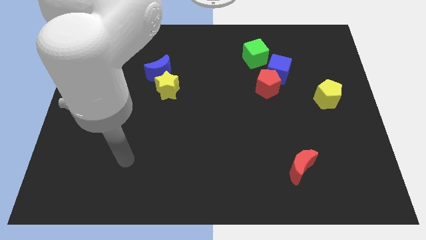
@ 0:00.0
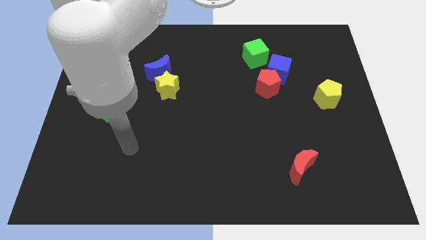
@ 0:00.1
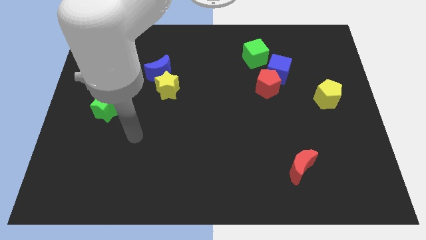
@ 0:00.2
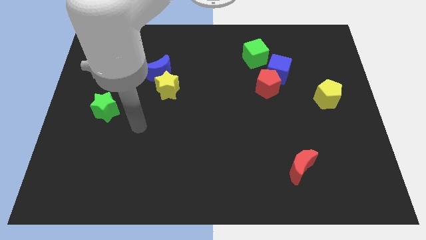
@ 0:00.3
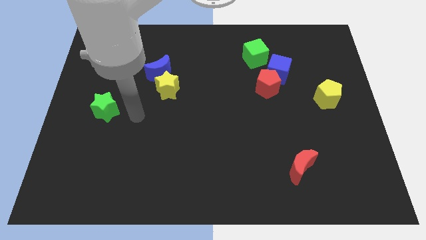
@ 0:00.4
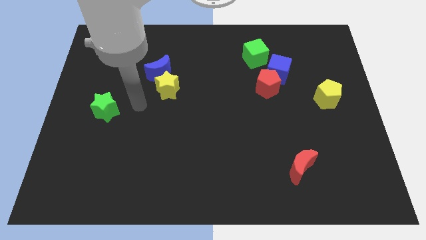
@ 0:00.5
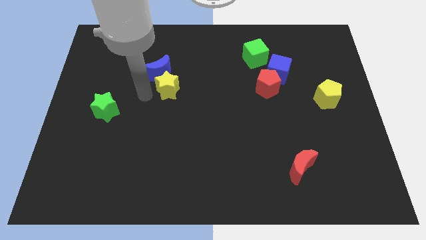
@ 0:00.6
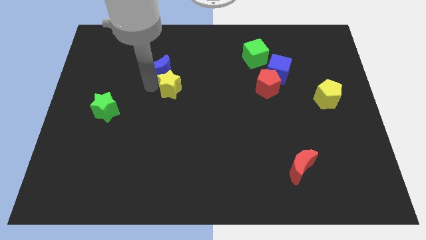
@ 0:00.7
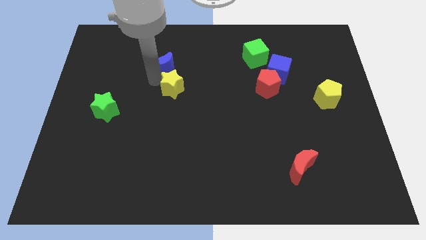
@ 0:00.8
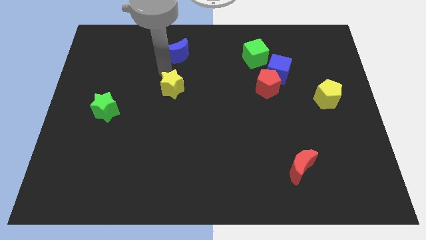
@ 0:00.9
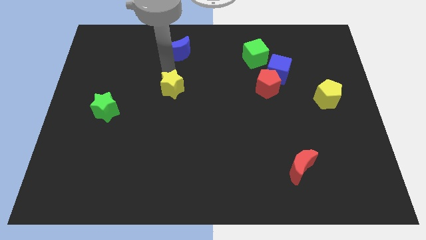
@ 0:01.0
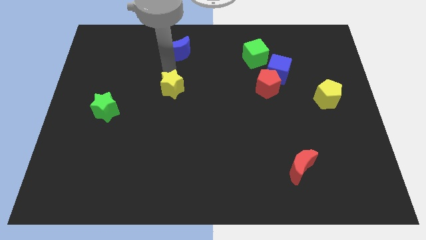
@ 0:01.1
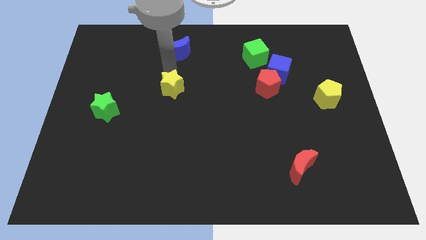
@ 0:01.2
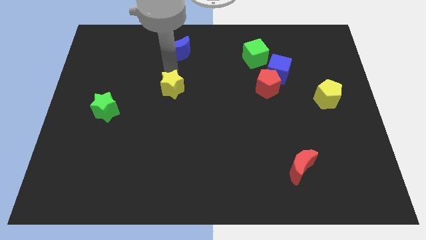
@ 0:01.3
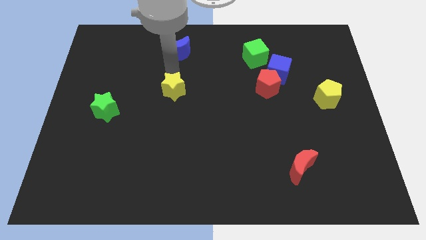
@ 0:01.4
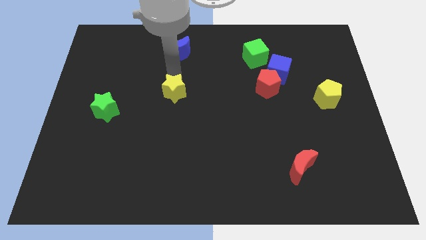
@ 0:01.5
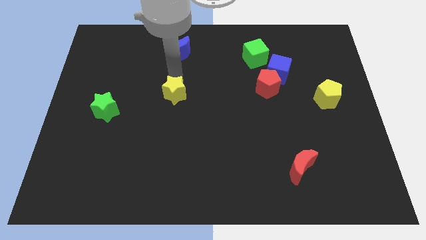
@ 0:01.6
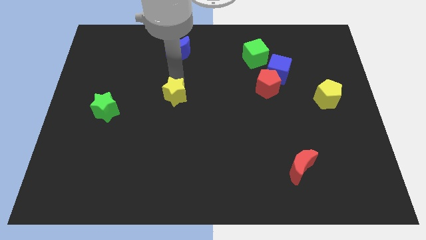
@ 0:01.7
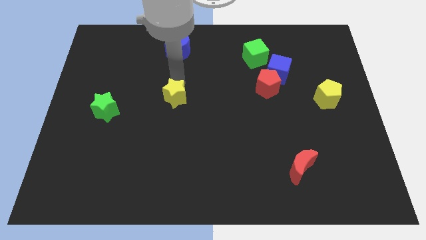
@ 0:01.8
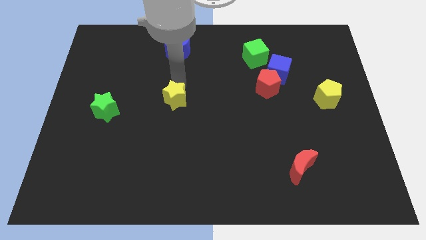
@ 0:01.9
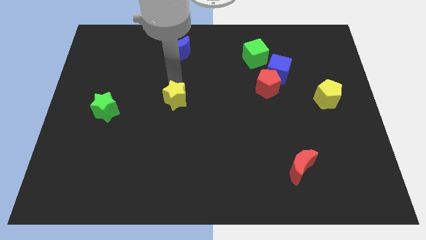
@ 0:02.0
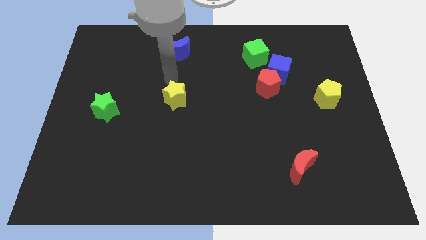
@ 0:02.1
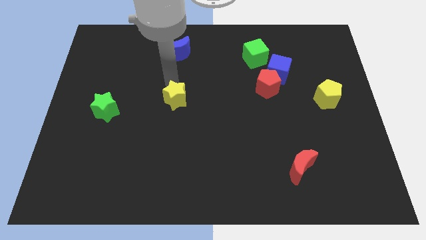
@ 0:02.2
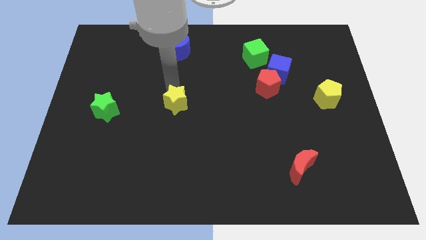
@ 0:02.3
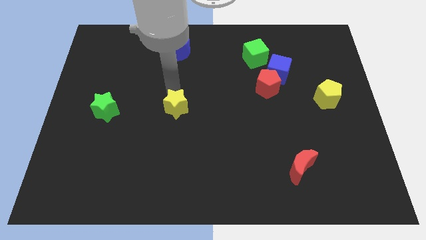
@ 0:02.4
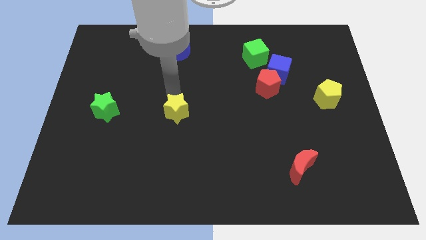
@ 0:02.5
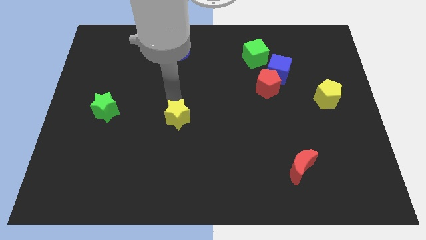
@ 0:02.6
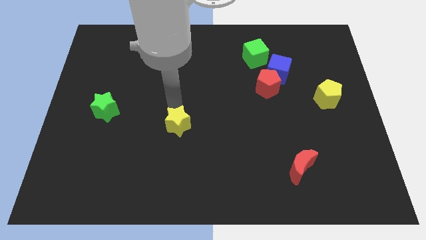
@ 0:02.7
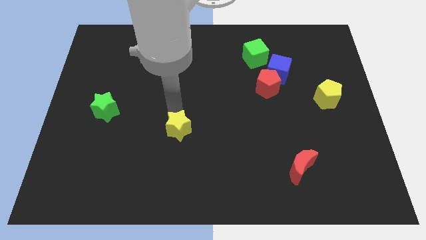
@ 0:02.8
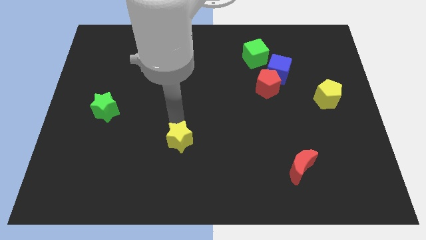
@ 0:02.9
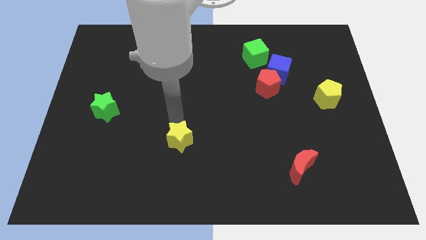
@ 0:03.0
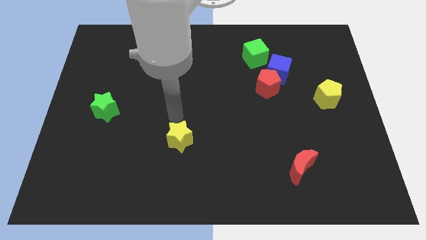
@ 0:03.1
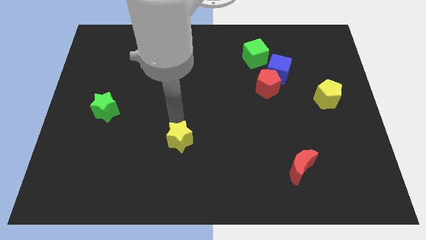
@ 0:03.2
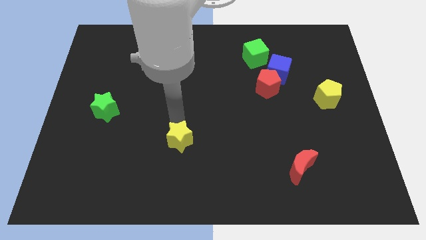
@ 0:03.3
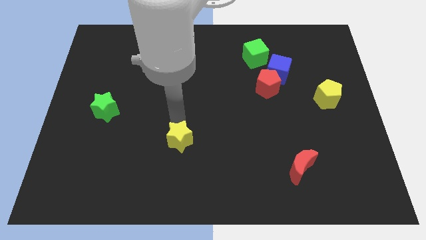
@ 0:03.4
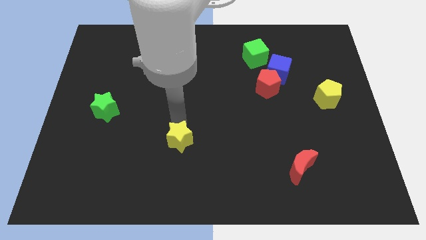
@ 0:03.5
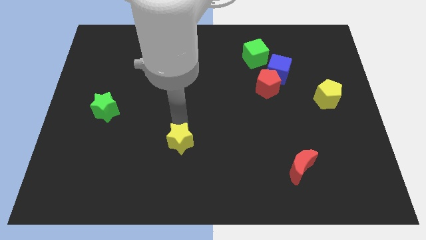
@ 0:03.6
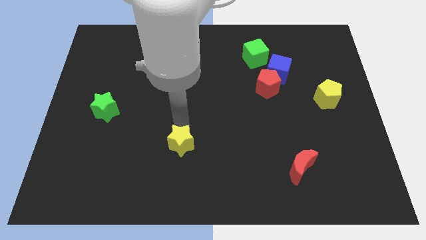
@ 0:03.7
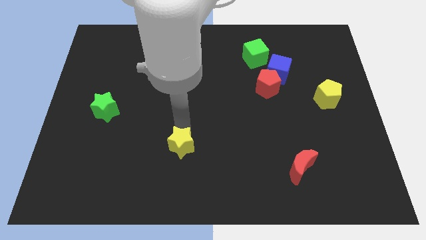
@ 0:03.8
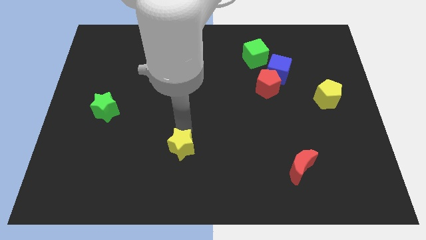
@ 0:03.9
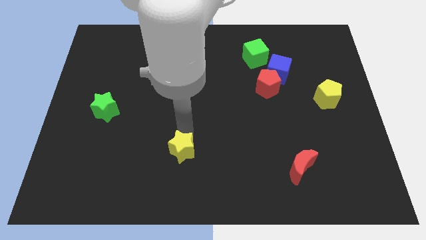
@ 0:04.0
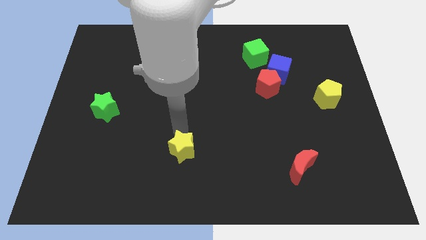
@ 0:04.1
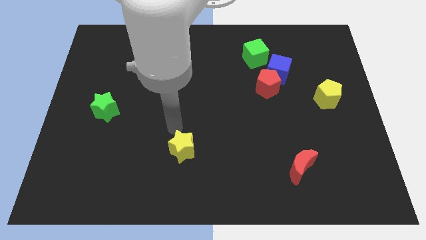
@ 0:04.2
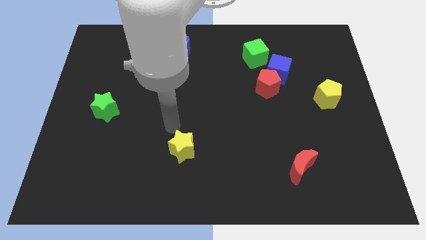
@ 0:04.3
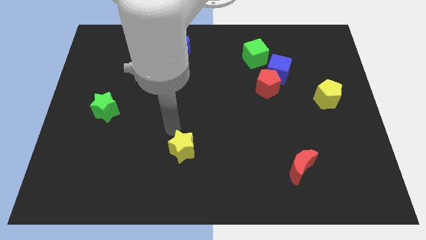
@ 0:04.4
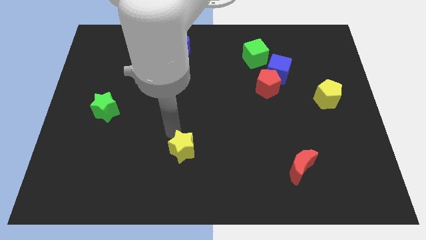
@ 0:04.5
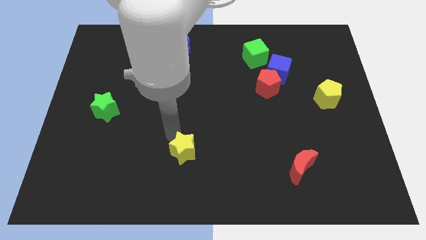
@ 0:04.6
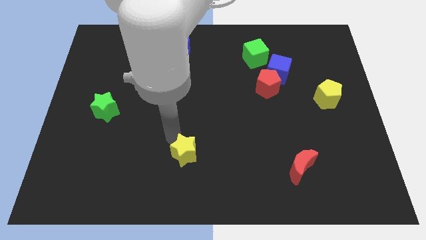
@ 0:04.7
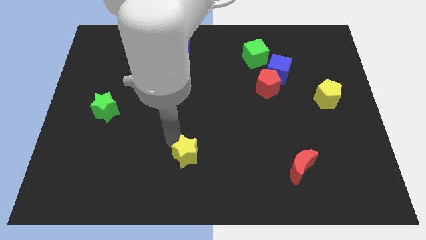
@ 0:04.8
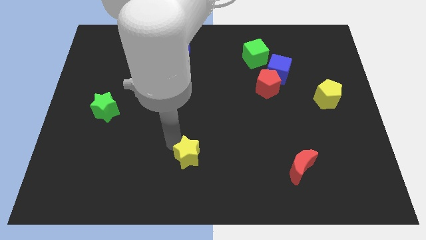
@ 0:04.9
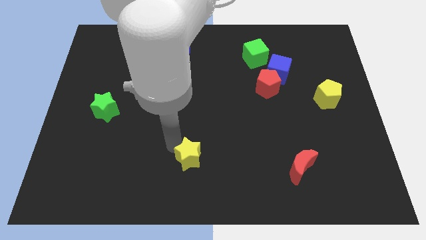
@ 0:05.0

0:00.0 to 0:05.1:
put the yellow star to the bottom side

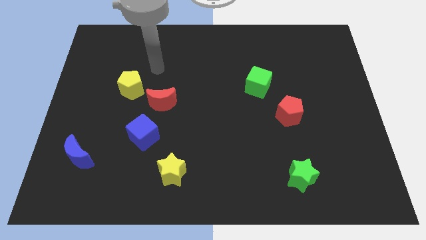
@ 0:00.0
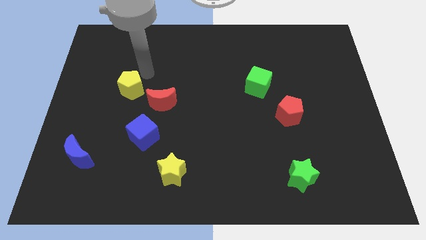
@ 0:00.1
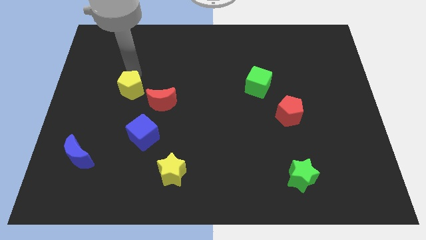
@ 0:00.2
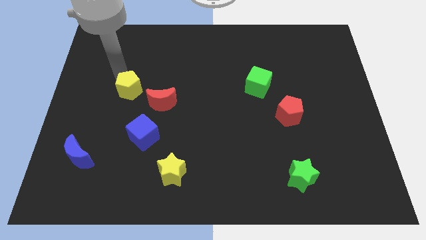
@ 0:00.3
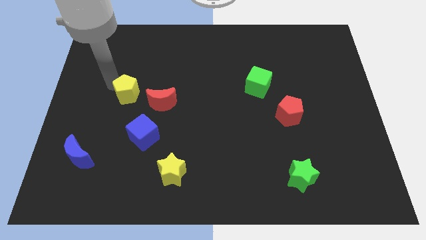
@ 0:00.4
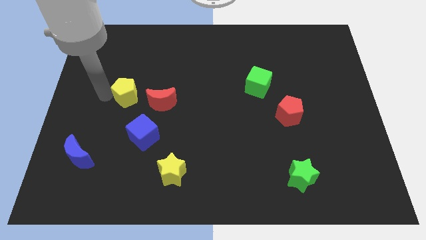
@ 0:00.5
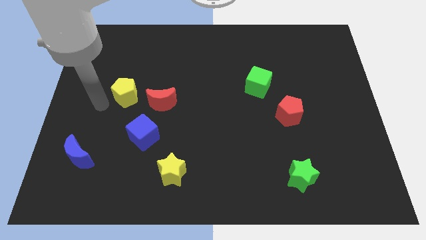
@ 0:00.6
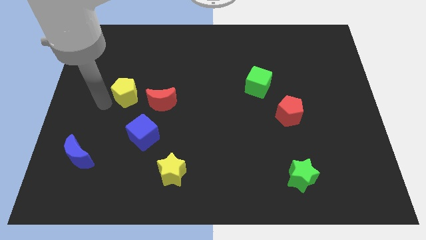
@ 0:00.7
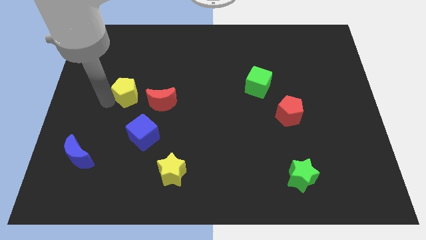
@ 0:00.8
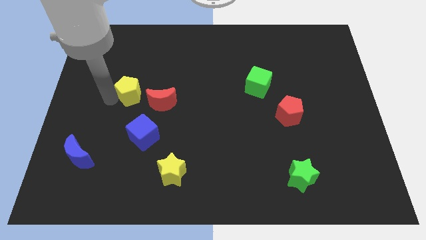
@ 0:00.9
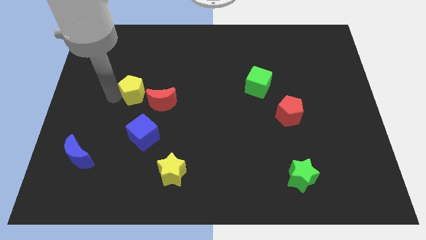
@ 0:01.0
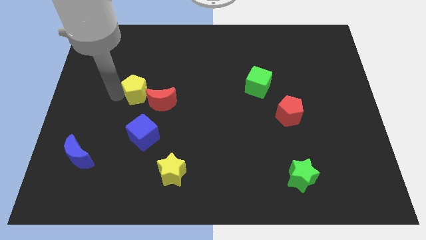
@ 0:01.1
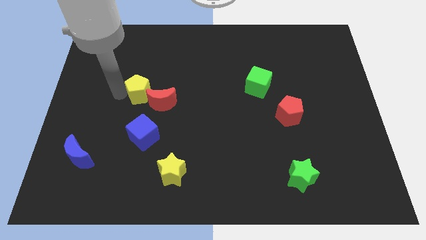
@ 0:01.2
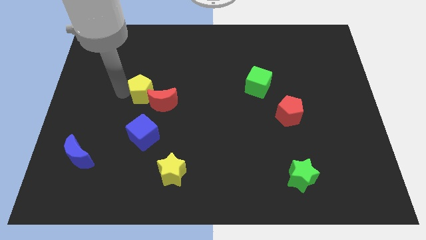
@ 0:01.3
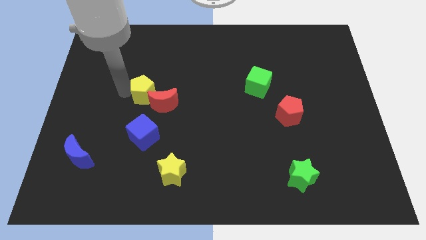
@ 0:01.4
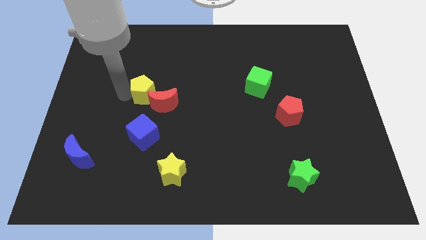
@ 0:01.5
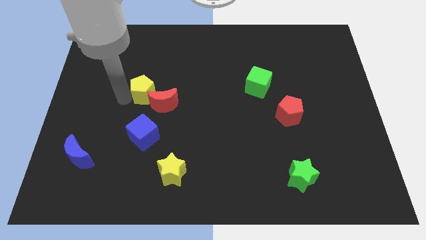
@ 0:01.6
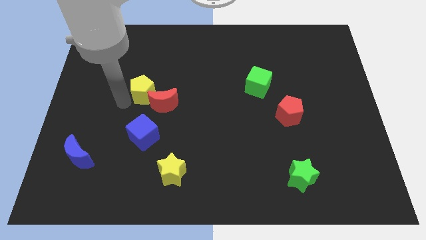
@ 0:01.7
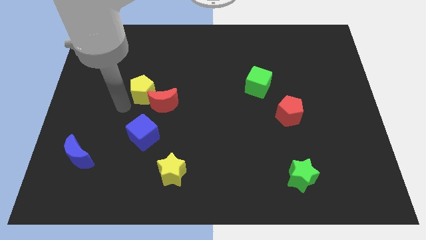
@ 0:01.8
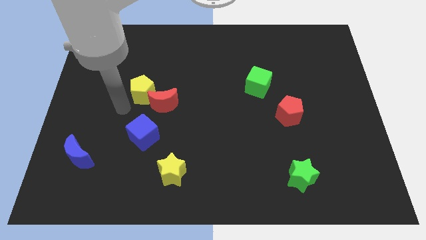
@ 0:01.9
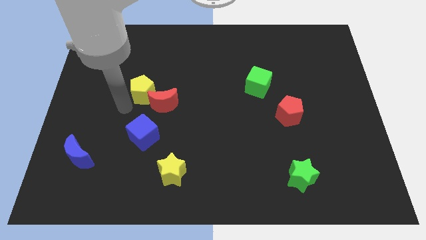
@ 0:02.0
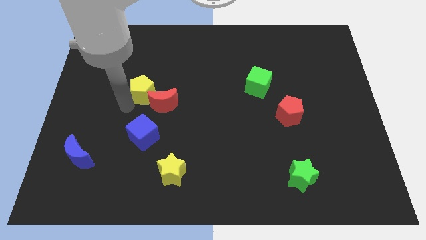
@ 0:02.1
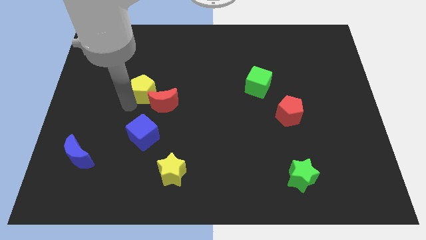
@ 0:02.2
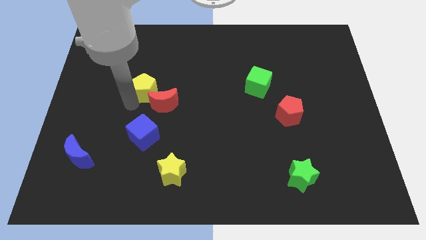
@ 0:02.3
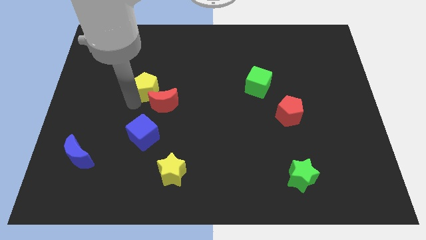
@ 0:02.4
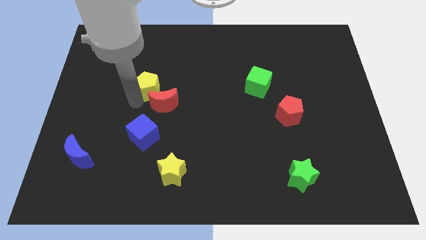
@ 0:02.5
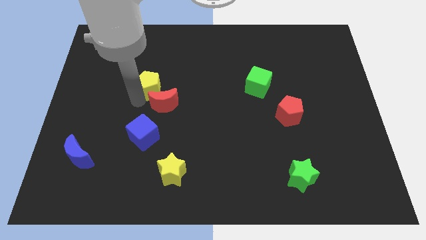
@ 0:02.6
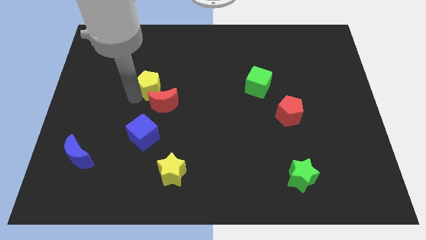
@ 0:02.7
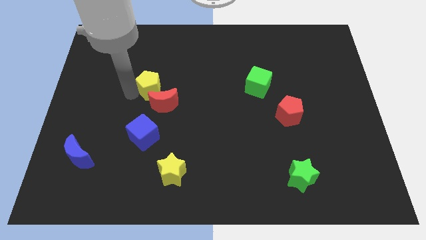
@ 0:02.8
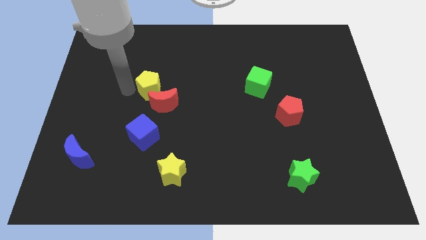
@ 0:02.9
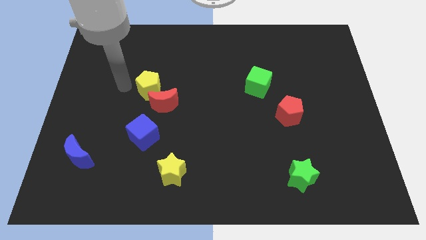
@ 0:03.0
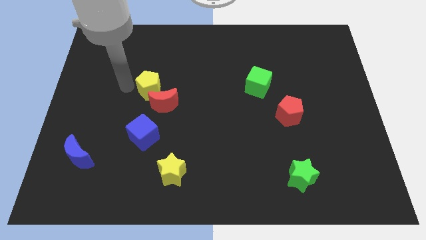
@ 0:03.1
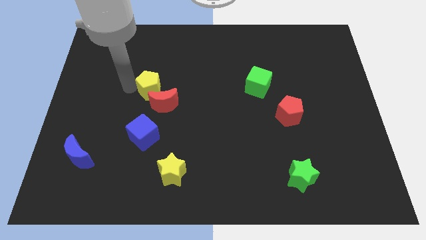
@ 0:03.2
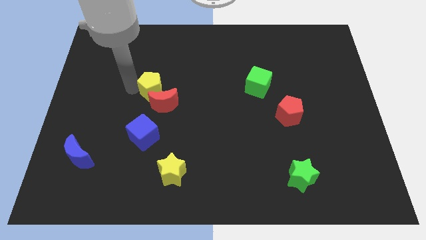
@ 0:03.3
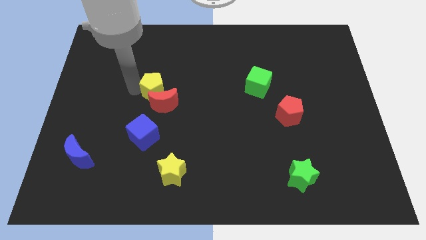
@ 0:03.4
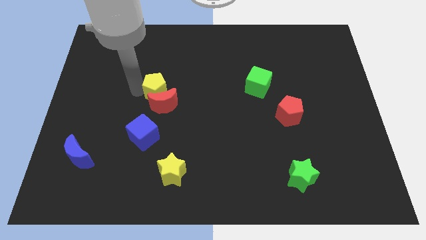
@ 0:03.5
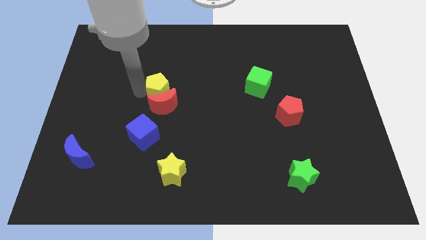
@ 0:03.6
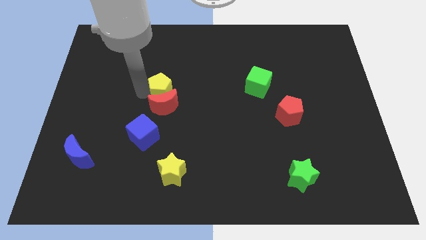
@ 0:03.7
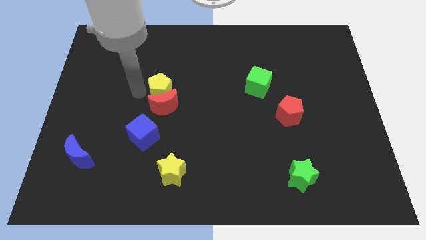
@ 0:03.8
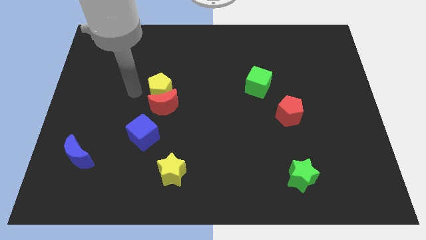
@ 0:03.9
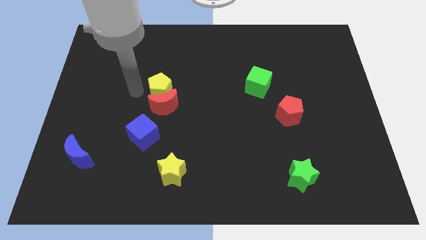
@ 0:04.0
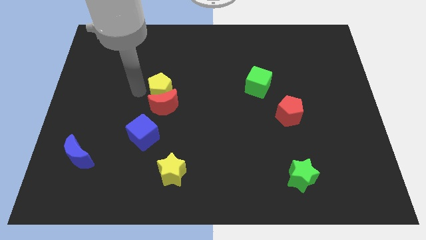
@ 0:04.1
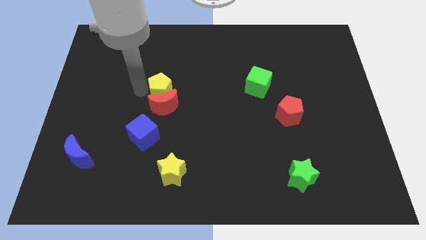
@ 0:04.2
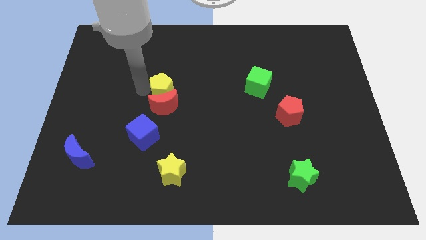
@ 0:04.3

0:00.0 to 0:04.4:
move the yellow pentagon to the center of the board
